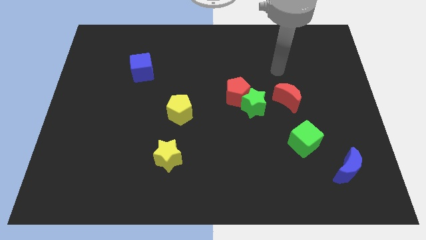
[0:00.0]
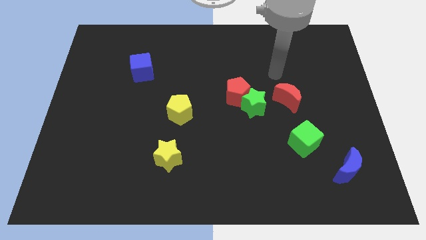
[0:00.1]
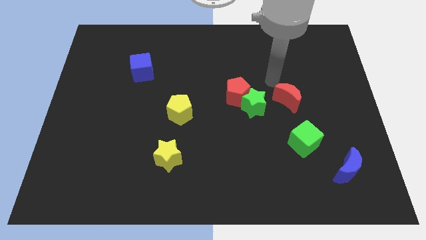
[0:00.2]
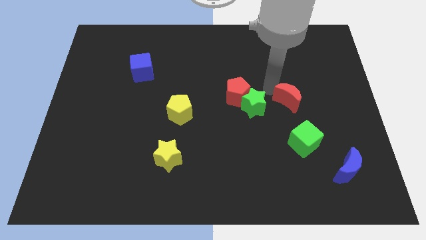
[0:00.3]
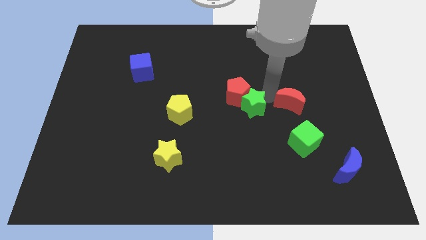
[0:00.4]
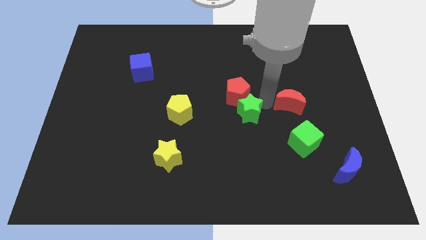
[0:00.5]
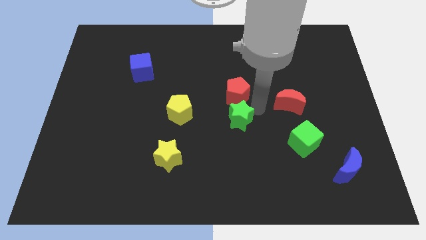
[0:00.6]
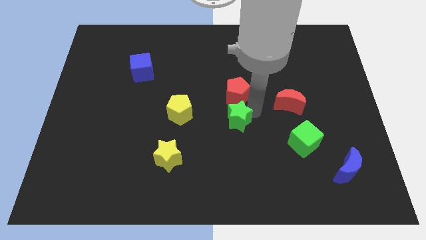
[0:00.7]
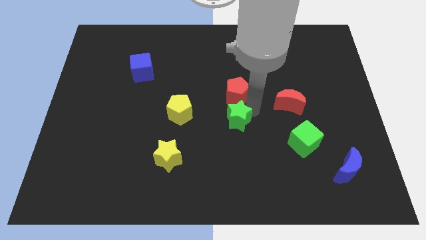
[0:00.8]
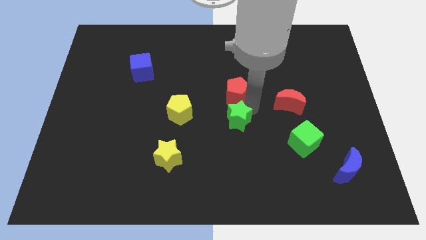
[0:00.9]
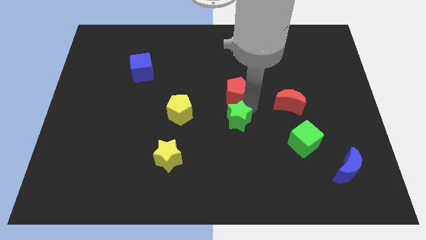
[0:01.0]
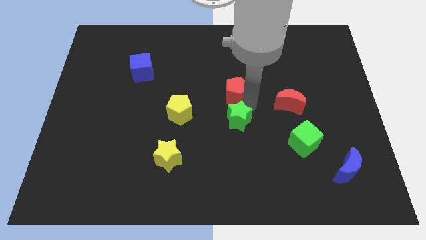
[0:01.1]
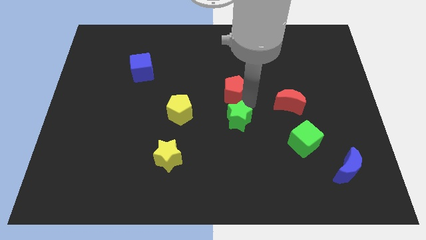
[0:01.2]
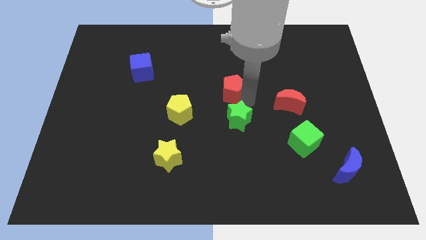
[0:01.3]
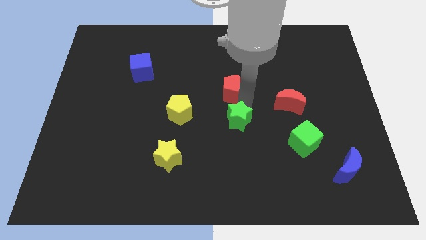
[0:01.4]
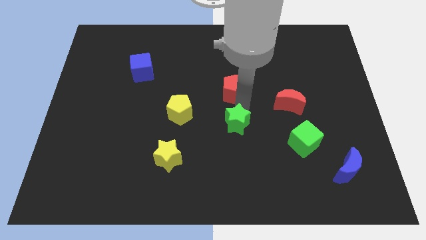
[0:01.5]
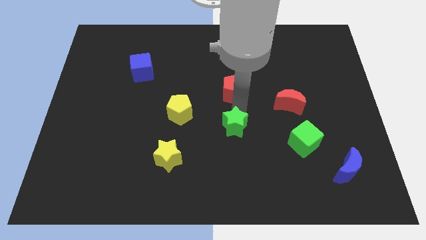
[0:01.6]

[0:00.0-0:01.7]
move the red pentagon away from the green star

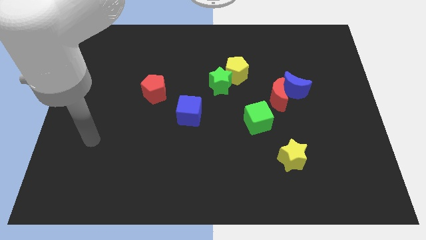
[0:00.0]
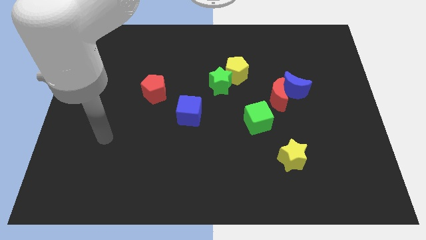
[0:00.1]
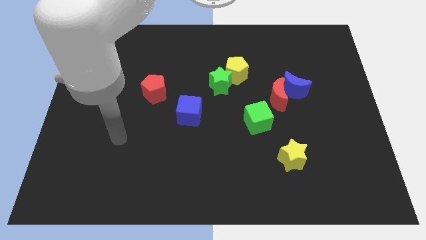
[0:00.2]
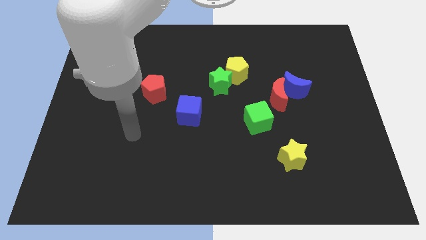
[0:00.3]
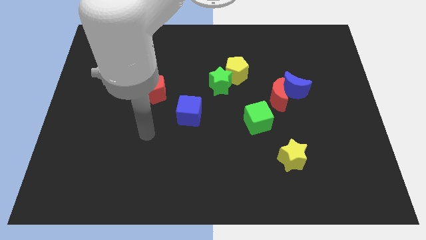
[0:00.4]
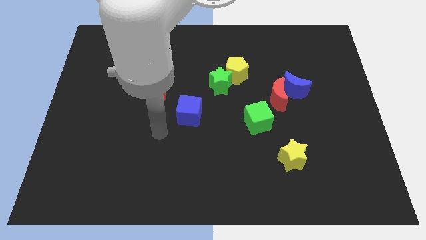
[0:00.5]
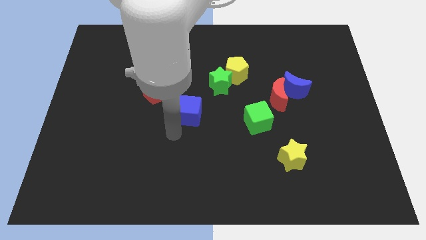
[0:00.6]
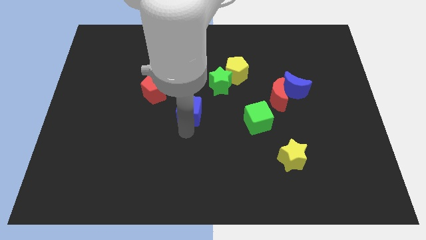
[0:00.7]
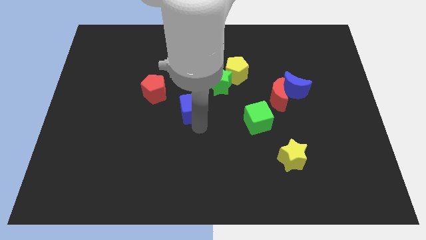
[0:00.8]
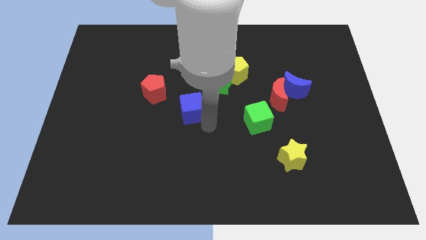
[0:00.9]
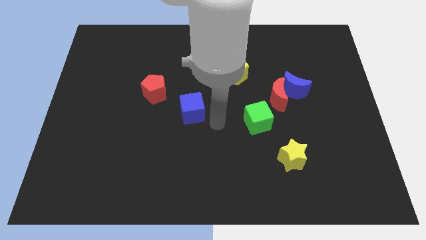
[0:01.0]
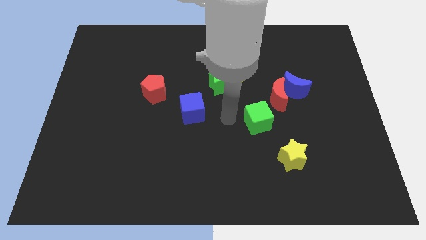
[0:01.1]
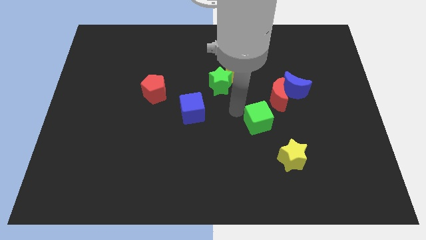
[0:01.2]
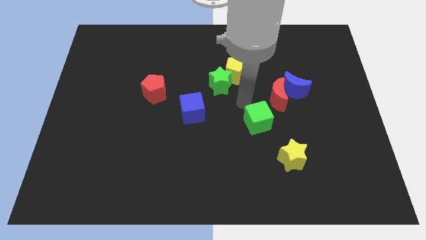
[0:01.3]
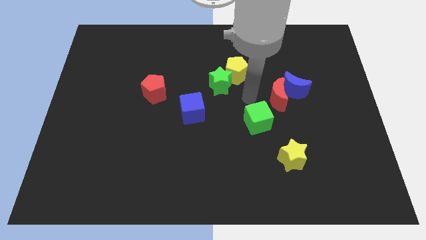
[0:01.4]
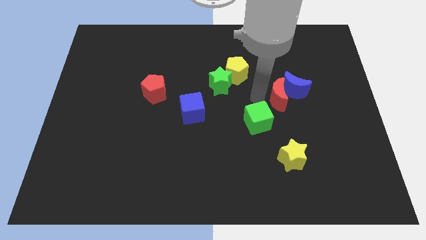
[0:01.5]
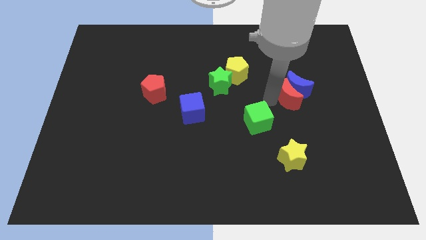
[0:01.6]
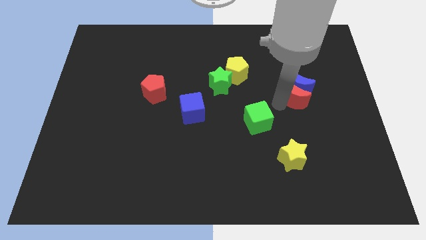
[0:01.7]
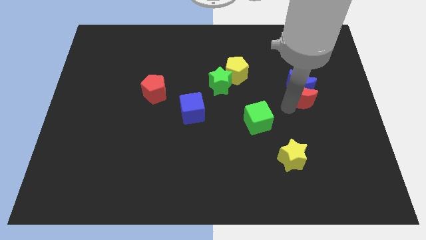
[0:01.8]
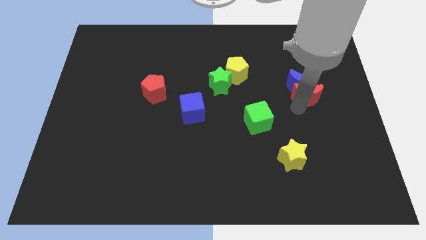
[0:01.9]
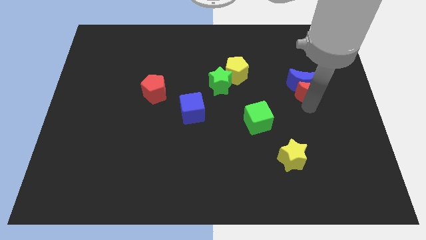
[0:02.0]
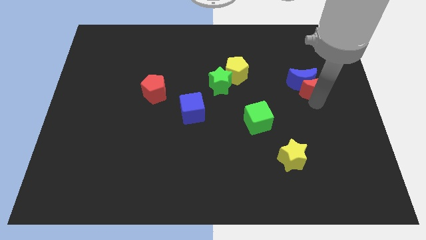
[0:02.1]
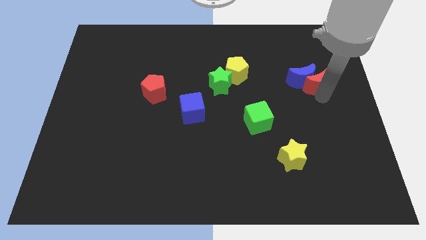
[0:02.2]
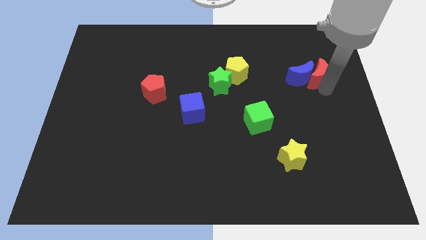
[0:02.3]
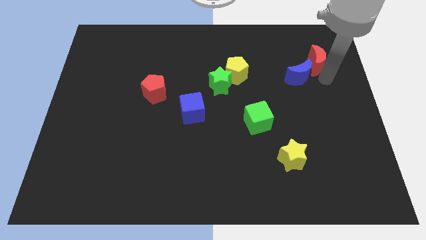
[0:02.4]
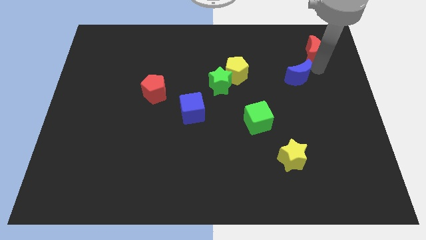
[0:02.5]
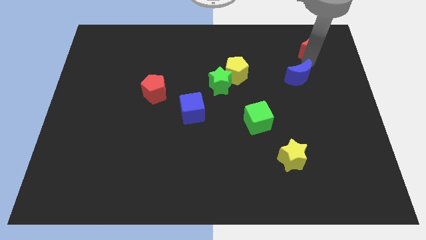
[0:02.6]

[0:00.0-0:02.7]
move the blue moon away from the red moon

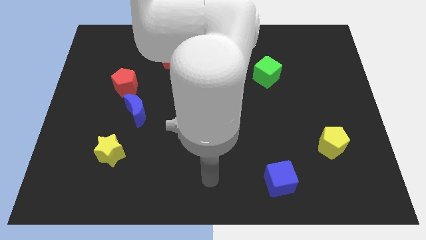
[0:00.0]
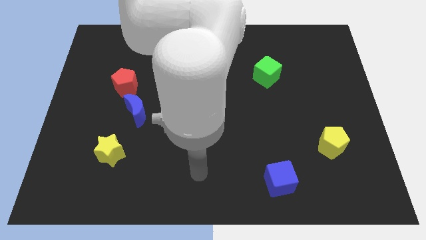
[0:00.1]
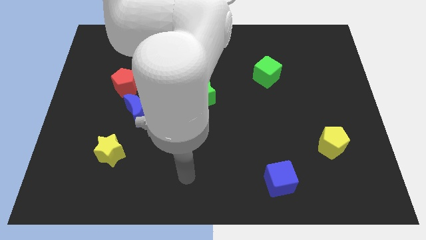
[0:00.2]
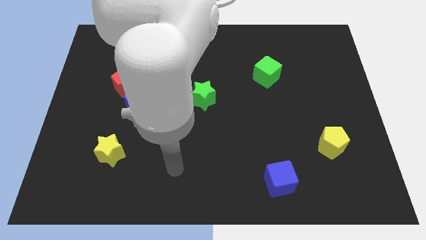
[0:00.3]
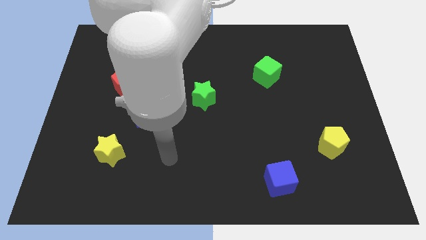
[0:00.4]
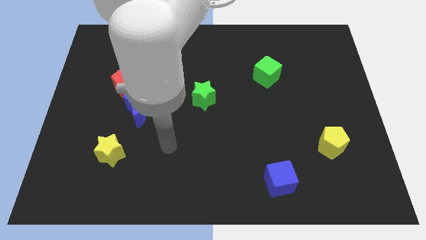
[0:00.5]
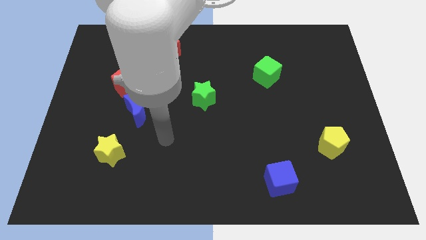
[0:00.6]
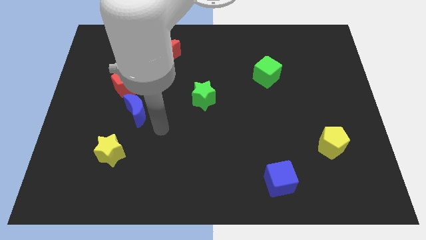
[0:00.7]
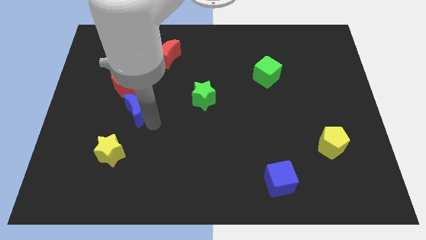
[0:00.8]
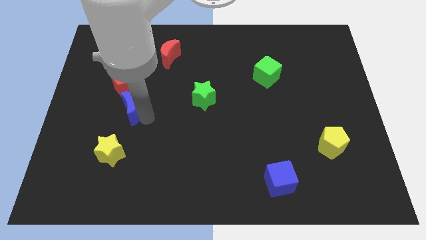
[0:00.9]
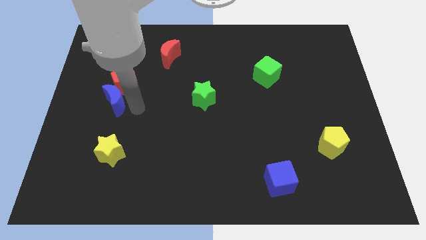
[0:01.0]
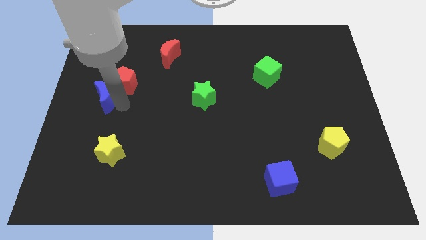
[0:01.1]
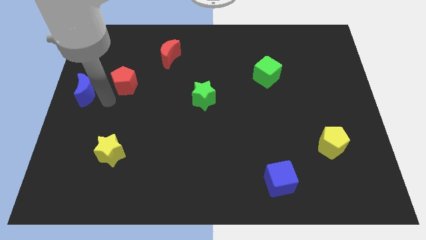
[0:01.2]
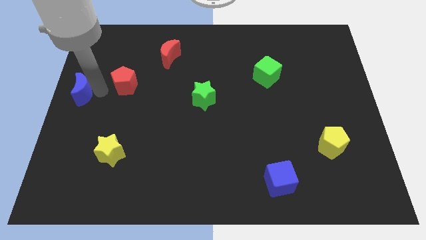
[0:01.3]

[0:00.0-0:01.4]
pull the red pentagon apart from the blue moon

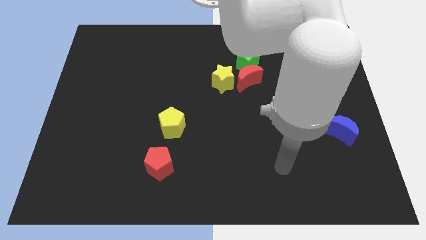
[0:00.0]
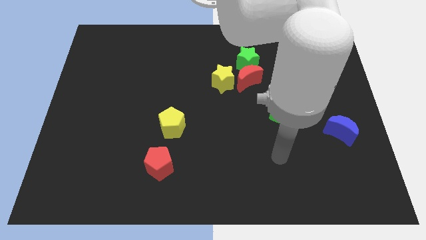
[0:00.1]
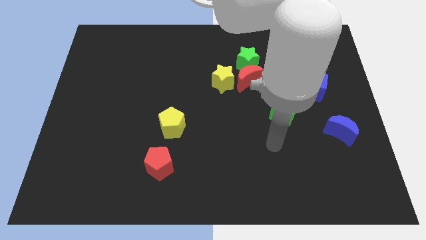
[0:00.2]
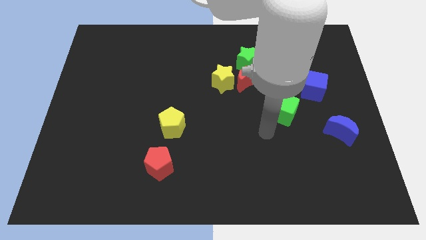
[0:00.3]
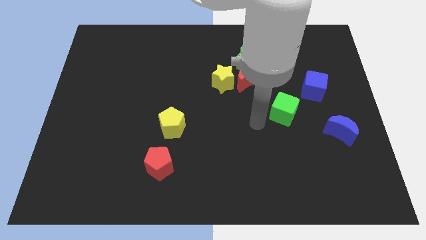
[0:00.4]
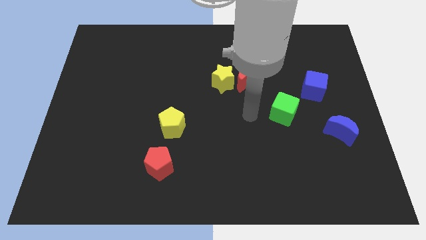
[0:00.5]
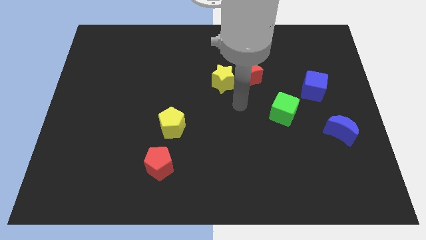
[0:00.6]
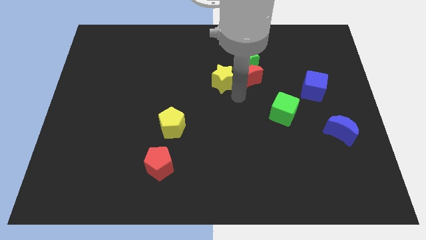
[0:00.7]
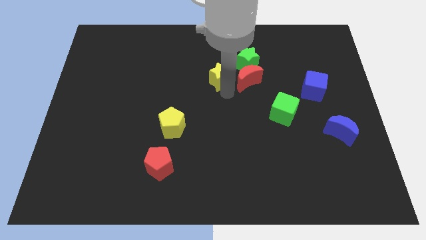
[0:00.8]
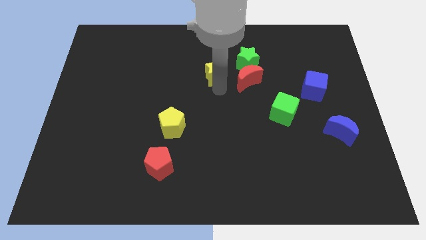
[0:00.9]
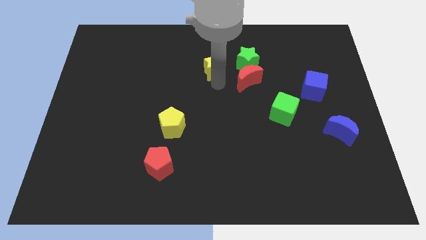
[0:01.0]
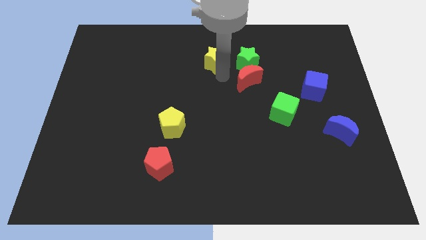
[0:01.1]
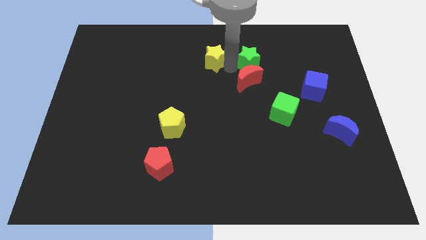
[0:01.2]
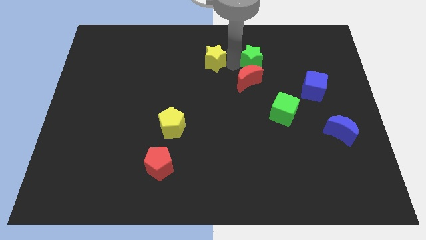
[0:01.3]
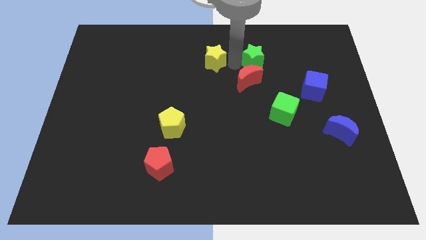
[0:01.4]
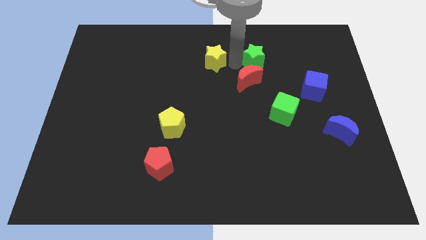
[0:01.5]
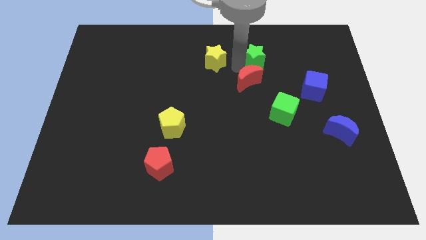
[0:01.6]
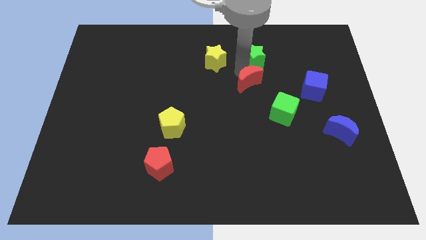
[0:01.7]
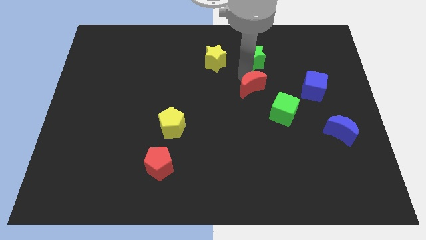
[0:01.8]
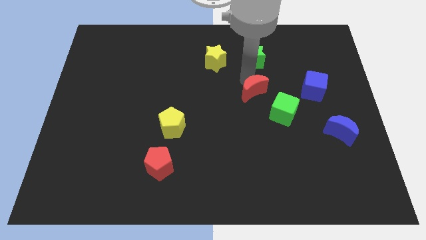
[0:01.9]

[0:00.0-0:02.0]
move the red moon away from the green star and yellow star

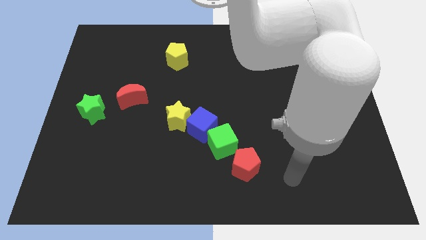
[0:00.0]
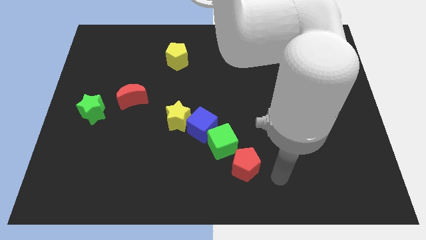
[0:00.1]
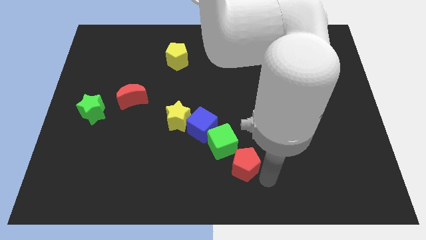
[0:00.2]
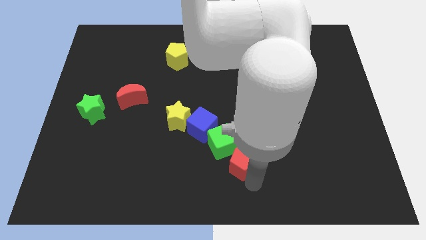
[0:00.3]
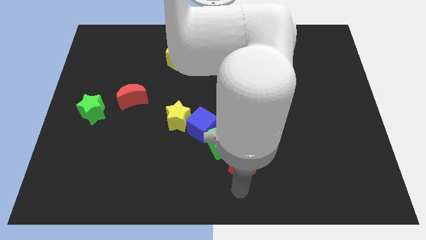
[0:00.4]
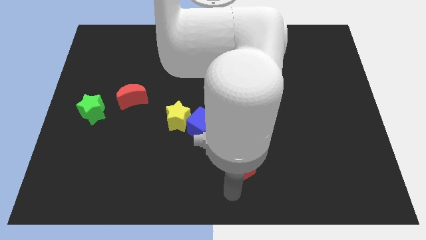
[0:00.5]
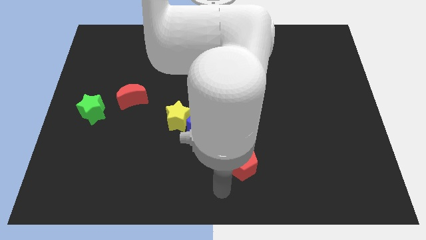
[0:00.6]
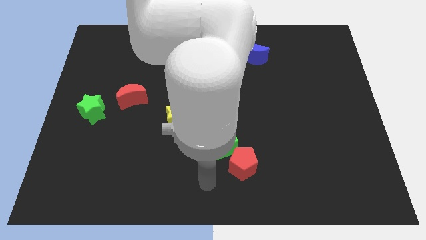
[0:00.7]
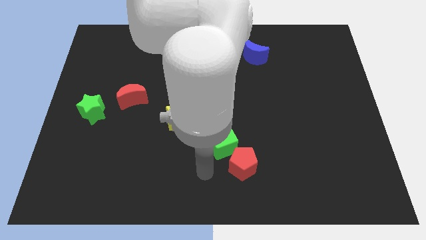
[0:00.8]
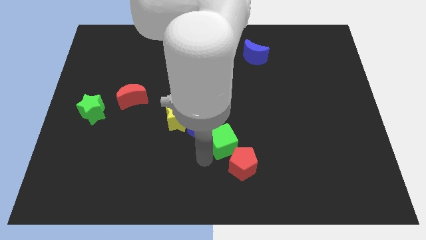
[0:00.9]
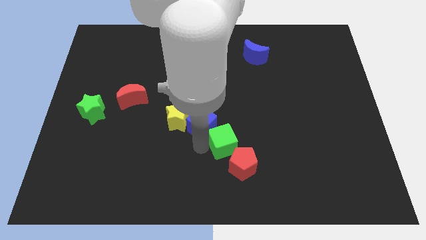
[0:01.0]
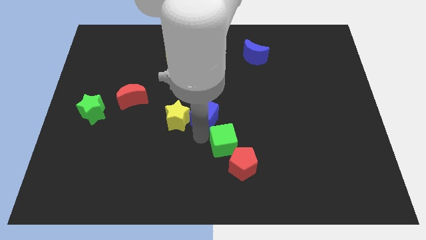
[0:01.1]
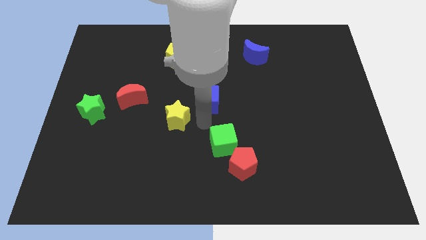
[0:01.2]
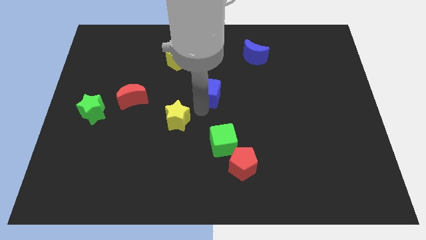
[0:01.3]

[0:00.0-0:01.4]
separate the yellow star from the blue cube
